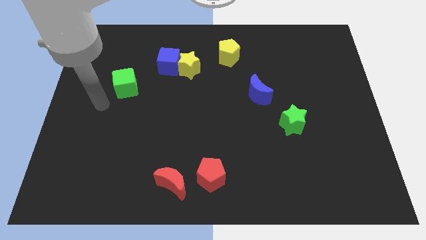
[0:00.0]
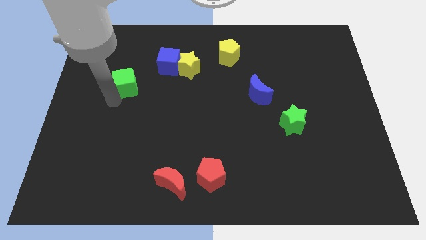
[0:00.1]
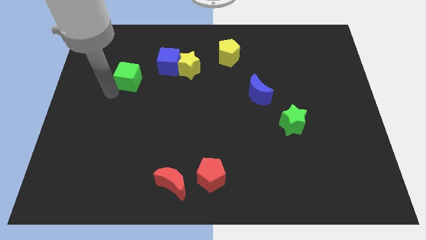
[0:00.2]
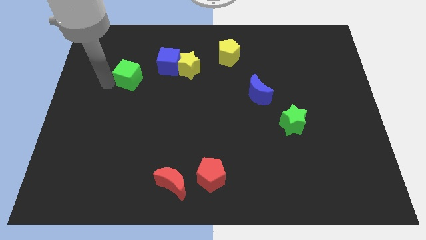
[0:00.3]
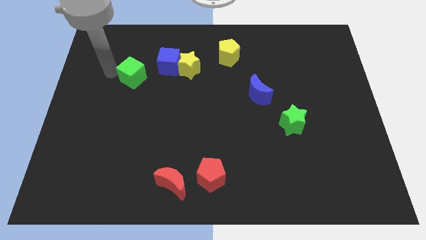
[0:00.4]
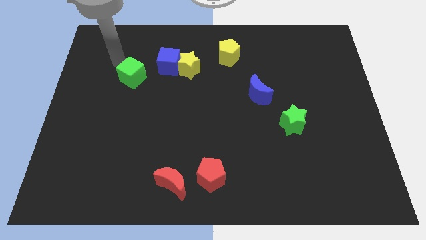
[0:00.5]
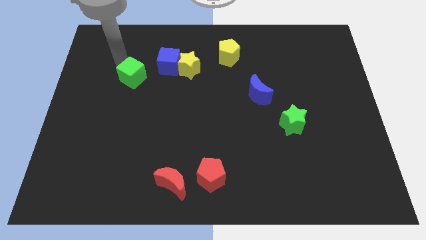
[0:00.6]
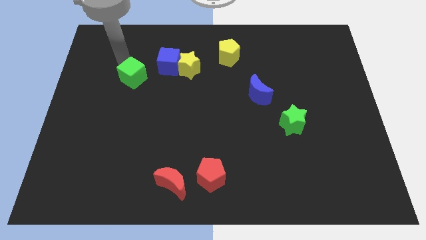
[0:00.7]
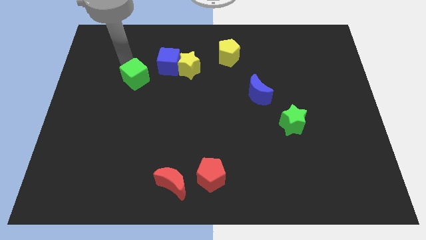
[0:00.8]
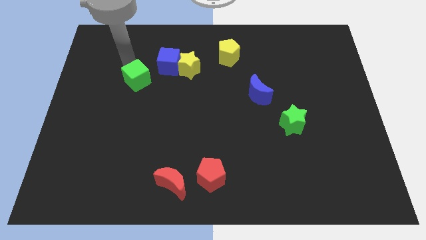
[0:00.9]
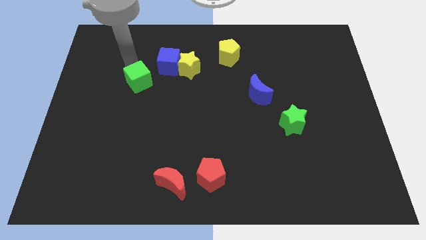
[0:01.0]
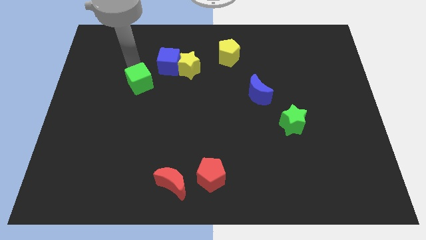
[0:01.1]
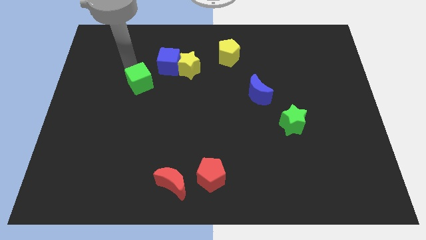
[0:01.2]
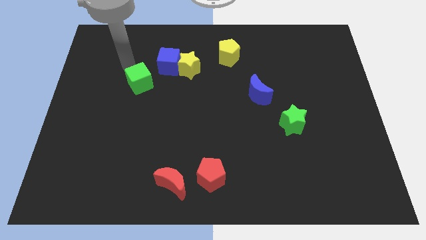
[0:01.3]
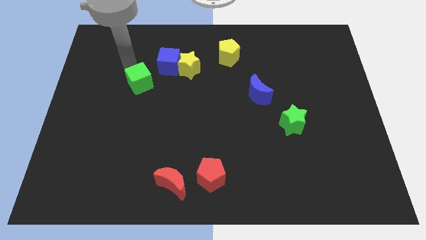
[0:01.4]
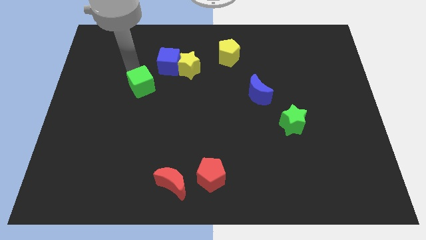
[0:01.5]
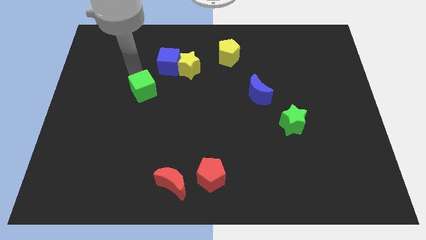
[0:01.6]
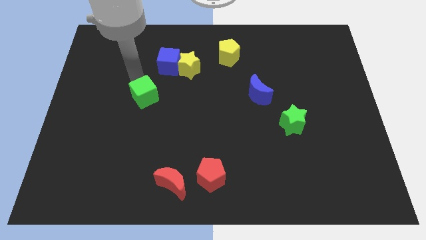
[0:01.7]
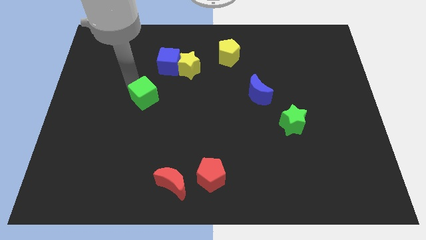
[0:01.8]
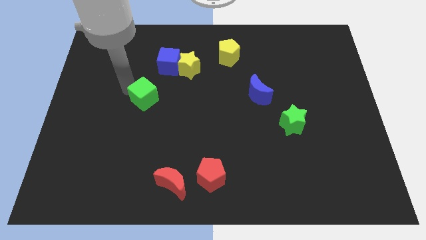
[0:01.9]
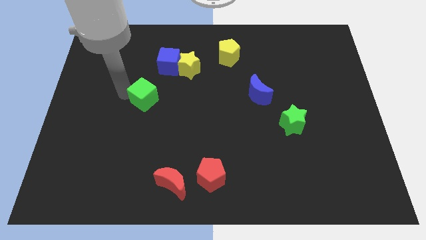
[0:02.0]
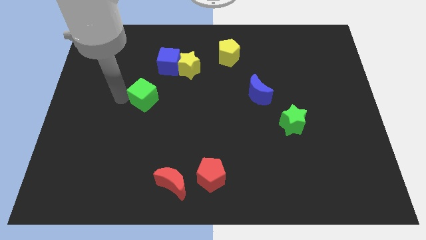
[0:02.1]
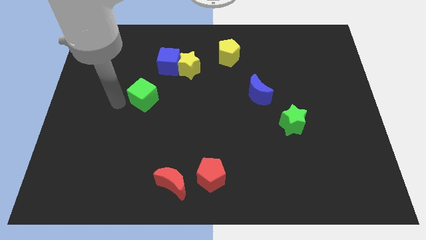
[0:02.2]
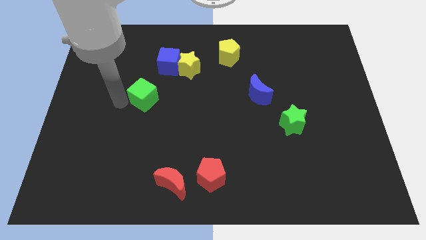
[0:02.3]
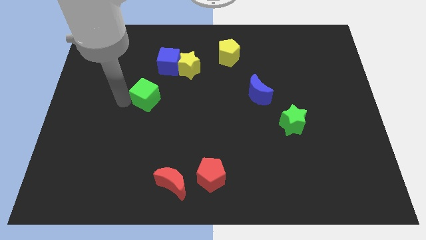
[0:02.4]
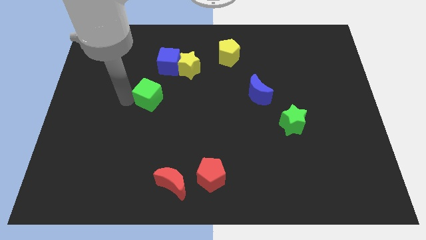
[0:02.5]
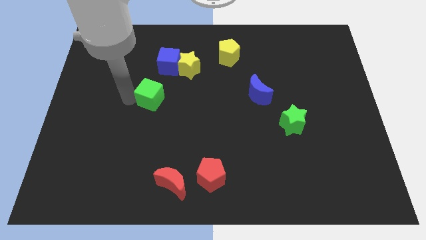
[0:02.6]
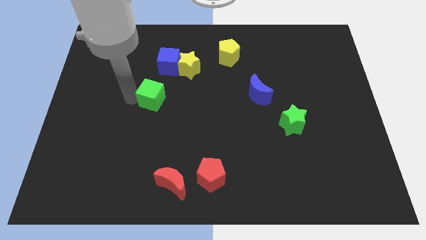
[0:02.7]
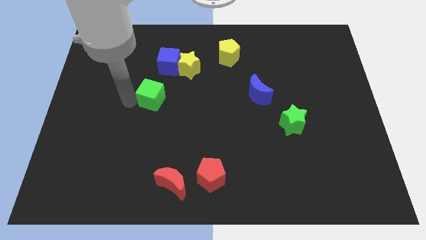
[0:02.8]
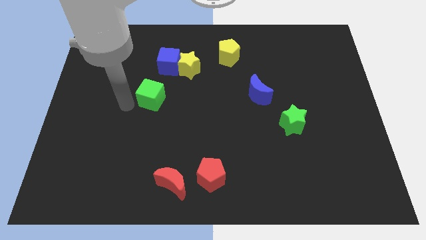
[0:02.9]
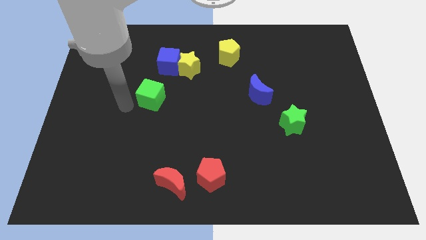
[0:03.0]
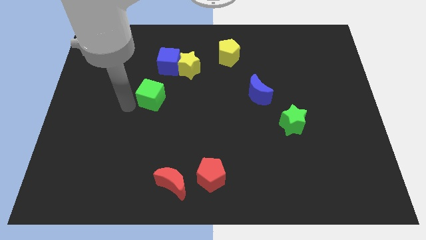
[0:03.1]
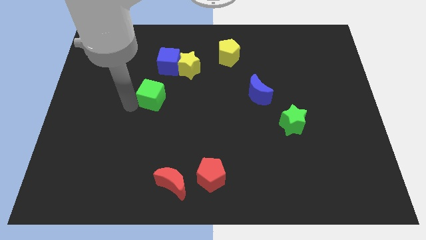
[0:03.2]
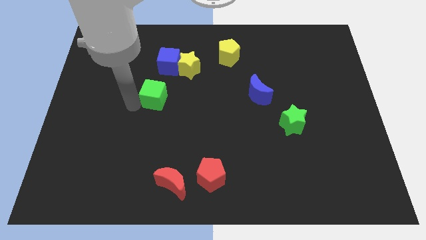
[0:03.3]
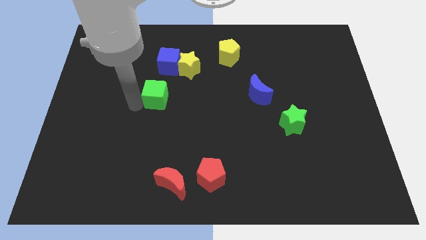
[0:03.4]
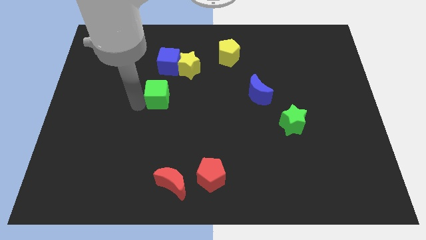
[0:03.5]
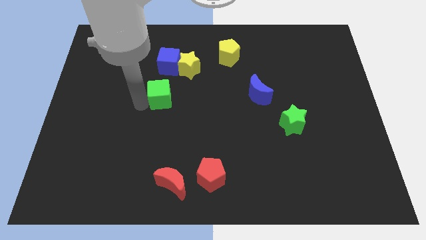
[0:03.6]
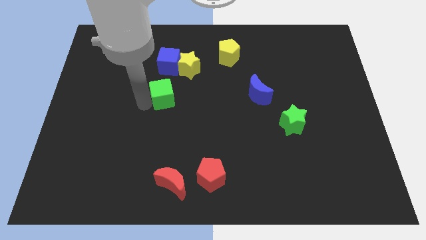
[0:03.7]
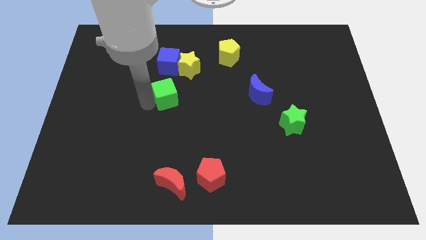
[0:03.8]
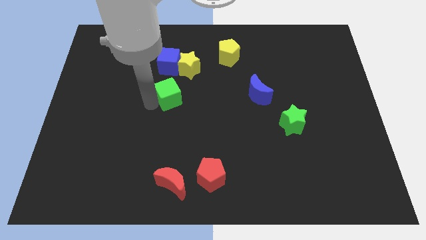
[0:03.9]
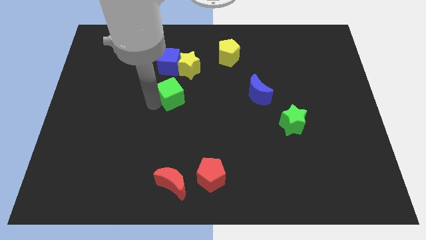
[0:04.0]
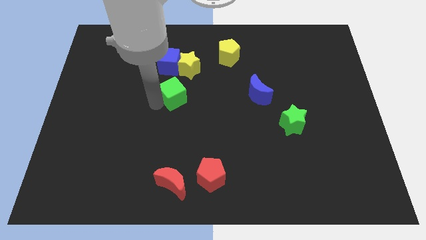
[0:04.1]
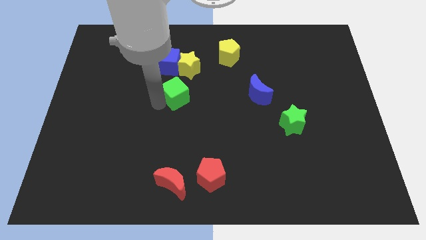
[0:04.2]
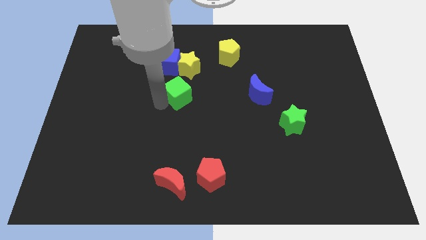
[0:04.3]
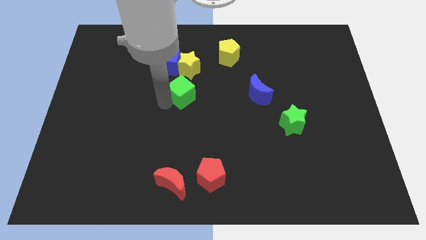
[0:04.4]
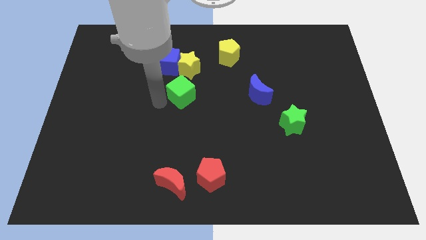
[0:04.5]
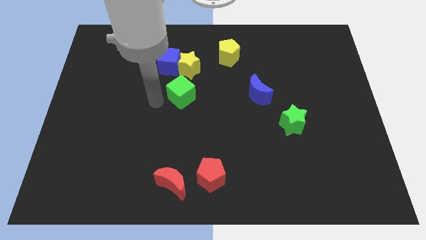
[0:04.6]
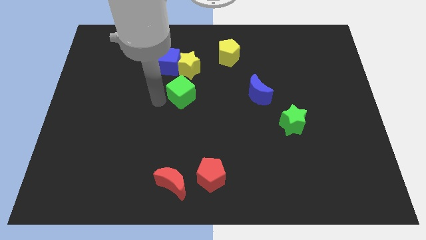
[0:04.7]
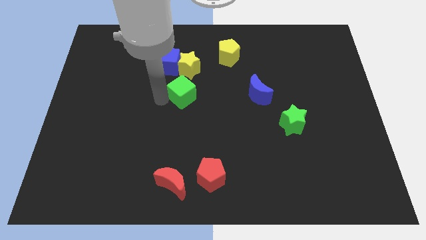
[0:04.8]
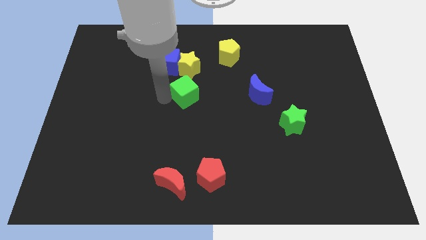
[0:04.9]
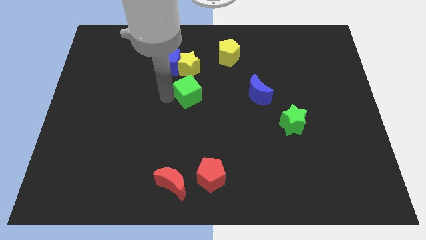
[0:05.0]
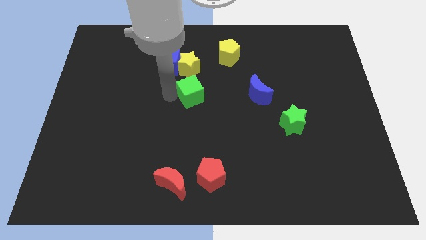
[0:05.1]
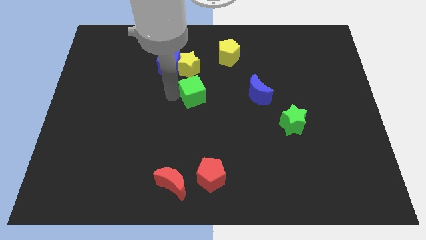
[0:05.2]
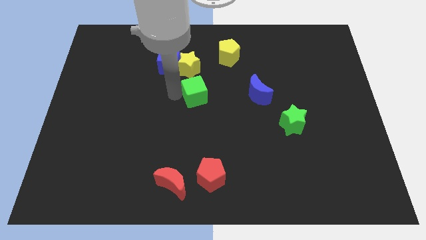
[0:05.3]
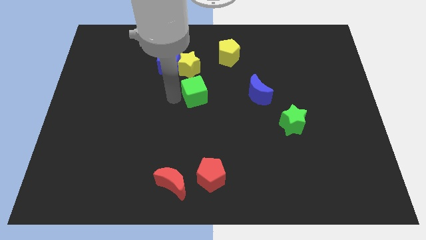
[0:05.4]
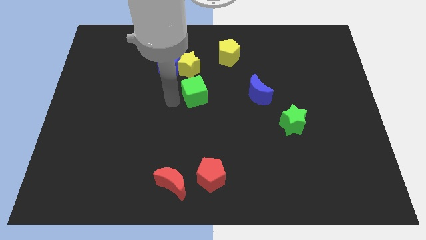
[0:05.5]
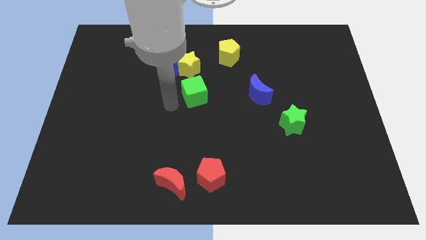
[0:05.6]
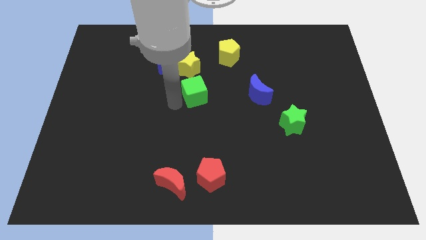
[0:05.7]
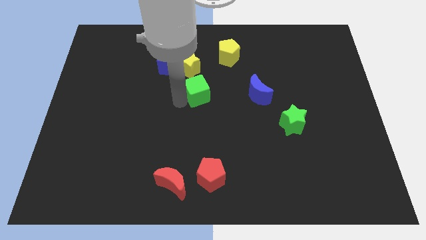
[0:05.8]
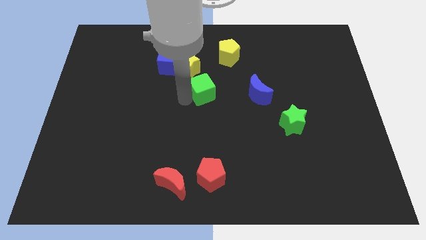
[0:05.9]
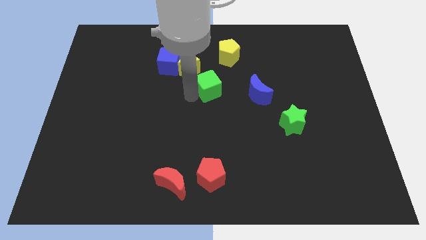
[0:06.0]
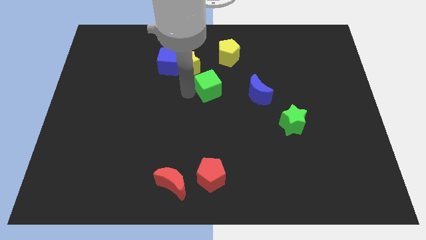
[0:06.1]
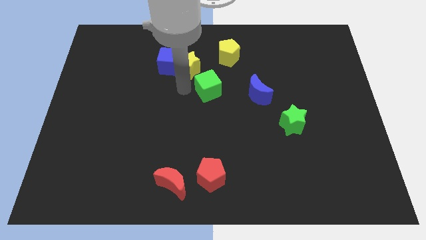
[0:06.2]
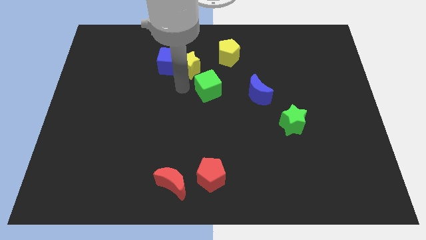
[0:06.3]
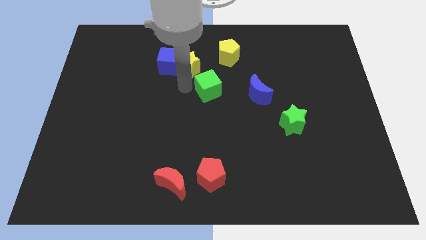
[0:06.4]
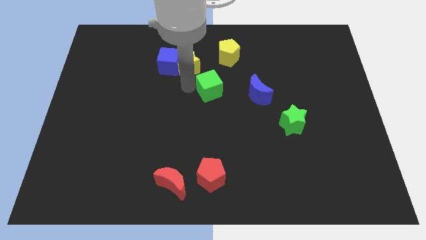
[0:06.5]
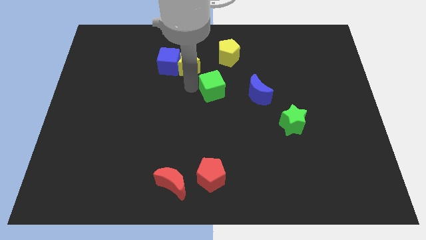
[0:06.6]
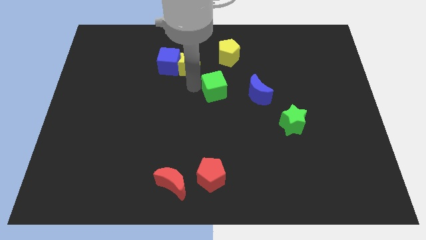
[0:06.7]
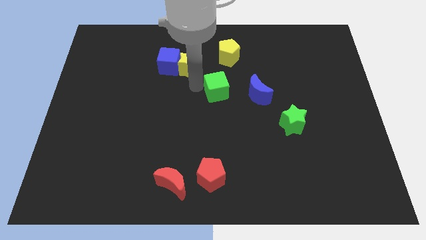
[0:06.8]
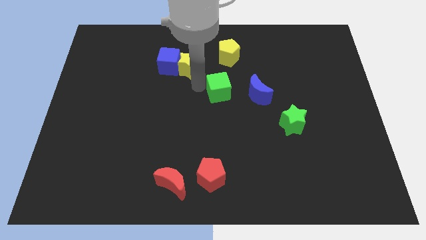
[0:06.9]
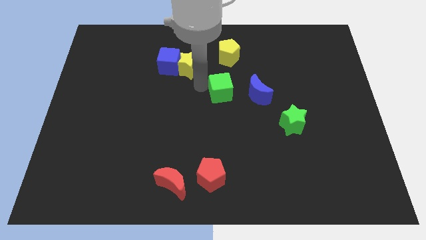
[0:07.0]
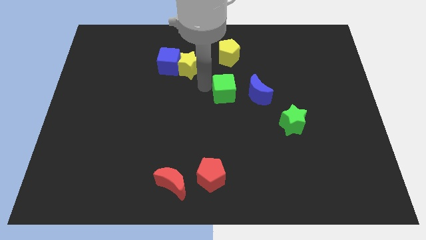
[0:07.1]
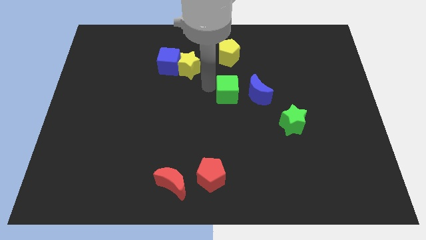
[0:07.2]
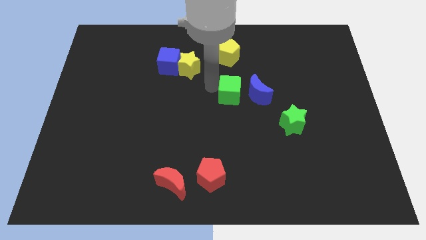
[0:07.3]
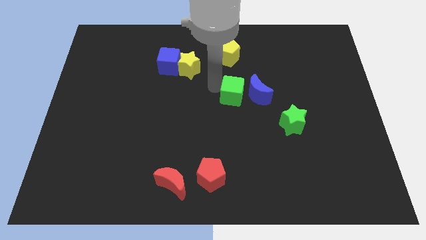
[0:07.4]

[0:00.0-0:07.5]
put the green cube next to the blue moon
